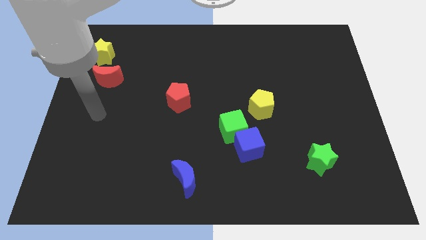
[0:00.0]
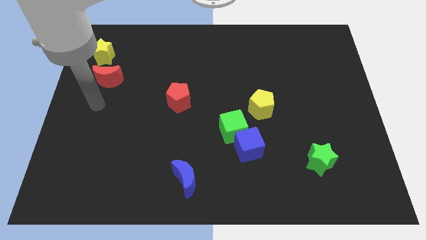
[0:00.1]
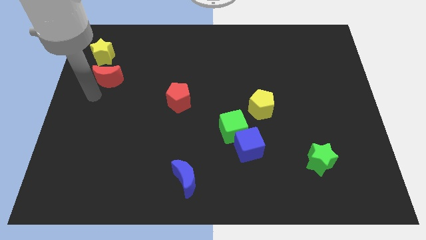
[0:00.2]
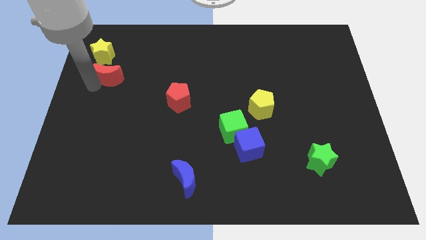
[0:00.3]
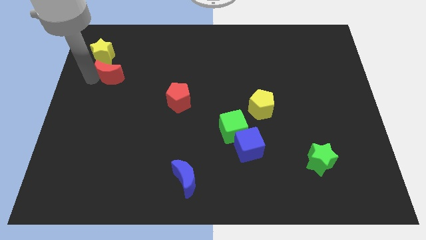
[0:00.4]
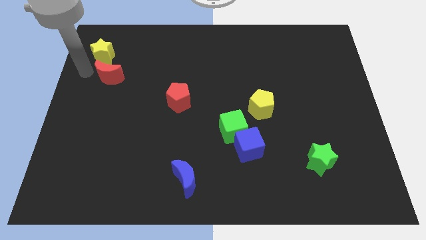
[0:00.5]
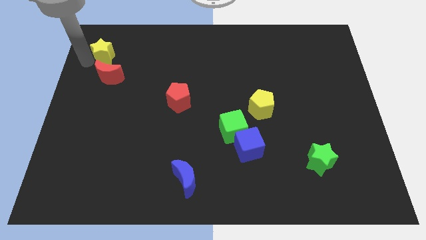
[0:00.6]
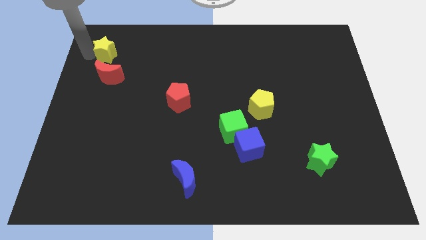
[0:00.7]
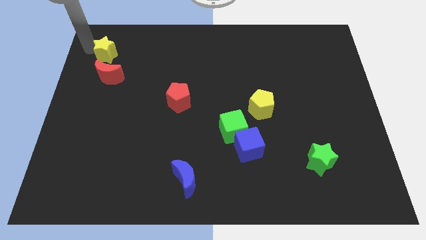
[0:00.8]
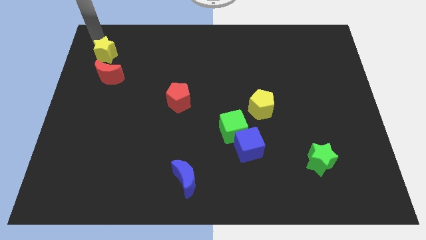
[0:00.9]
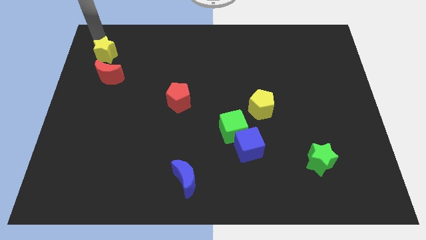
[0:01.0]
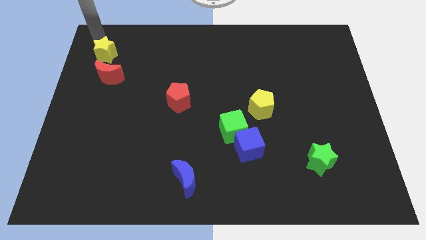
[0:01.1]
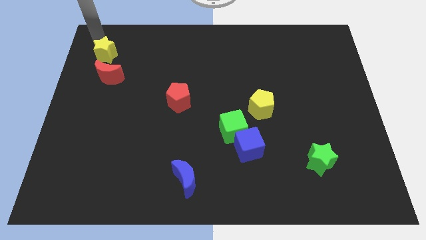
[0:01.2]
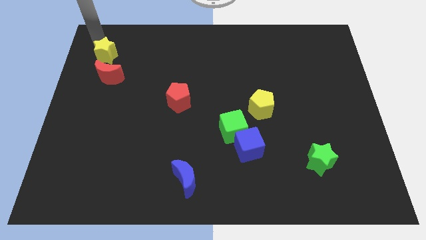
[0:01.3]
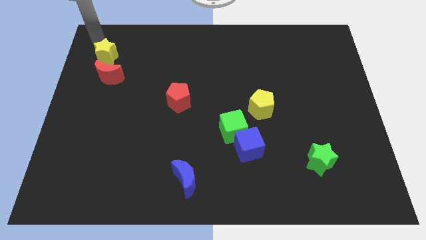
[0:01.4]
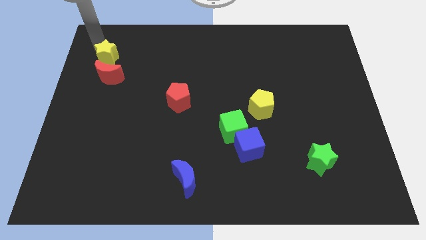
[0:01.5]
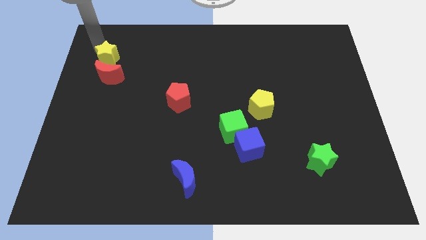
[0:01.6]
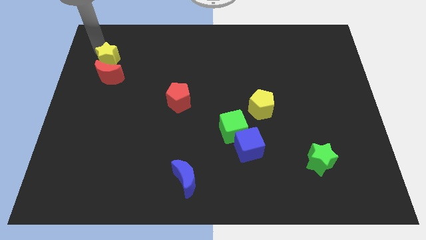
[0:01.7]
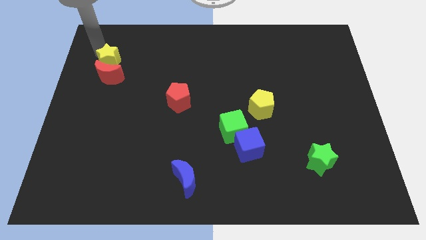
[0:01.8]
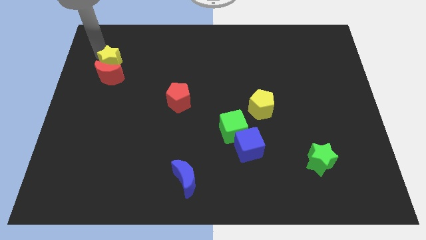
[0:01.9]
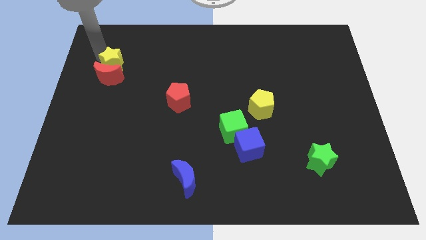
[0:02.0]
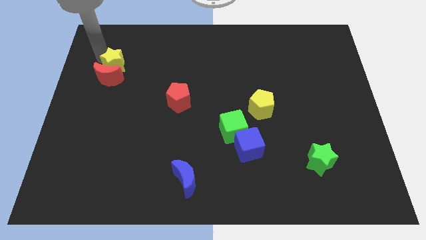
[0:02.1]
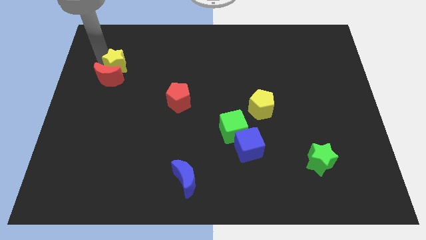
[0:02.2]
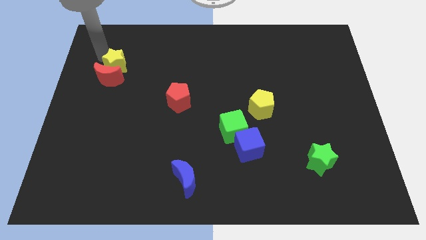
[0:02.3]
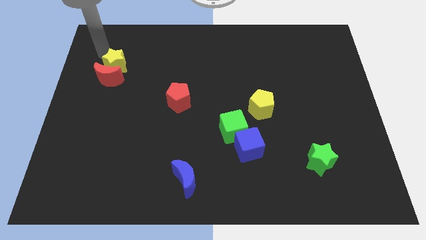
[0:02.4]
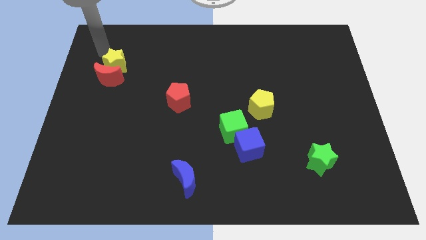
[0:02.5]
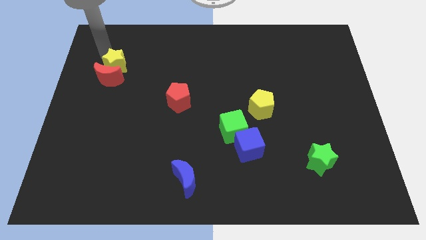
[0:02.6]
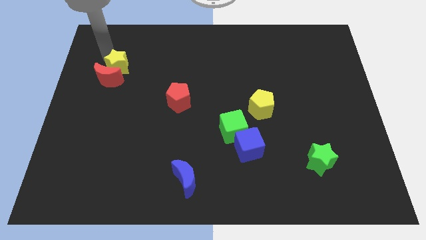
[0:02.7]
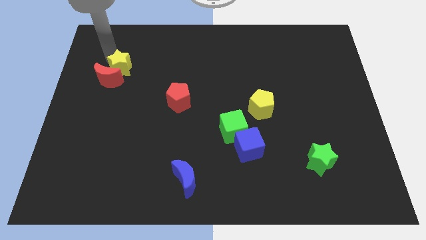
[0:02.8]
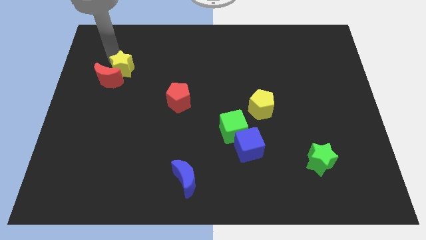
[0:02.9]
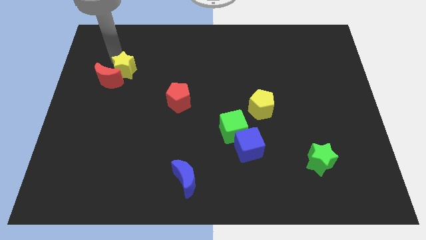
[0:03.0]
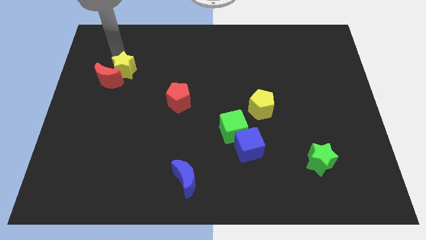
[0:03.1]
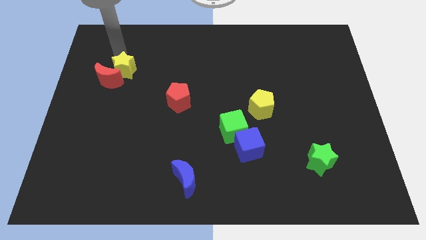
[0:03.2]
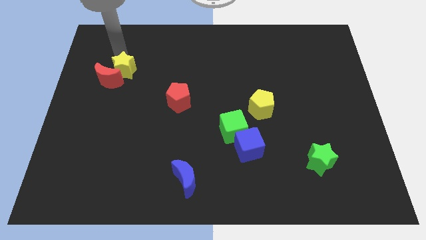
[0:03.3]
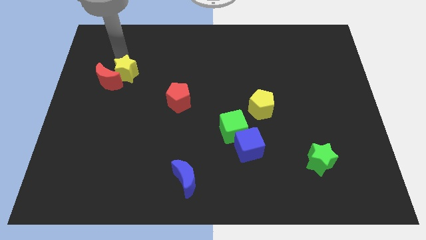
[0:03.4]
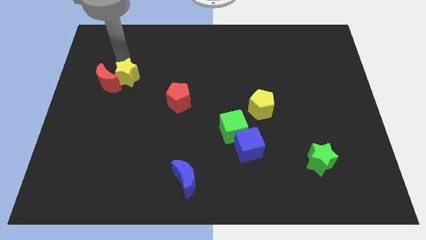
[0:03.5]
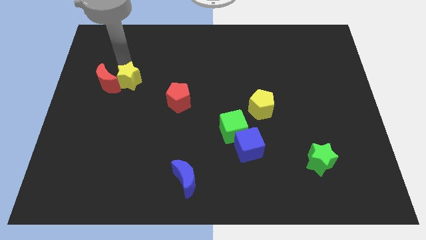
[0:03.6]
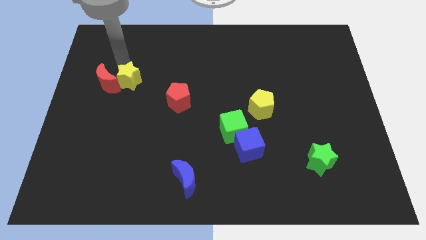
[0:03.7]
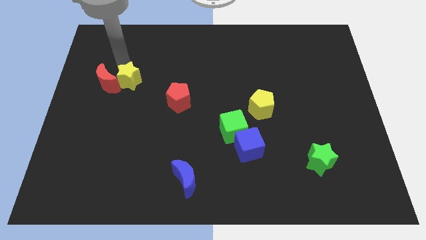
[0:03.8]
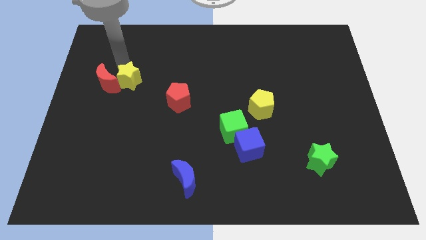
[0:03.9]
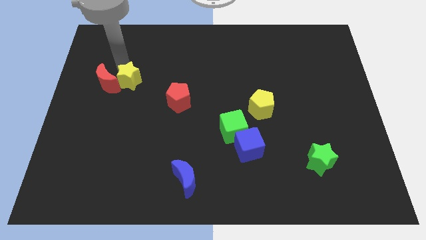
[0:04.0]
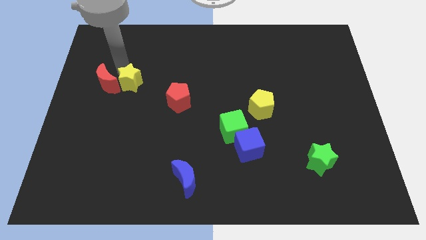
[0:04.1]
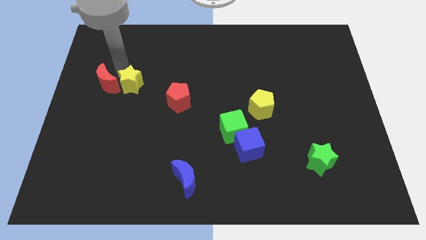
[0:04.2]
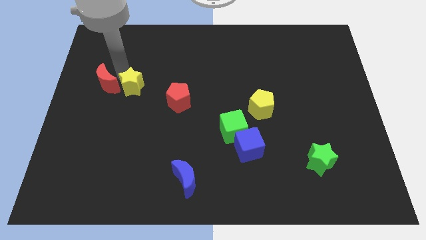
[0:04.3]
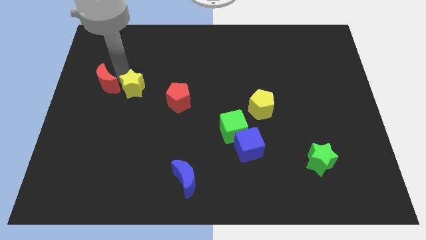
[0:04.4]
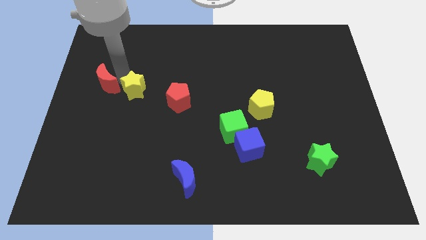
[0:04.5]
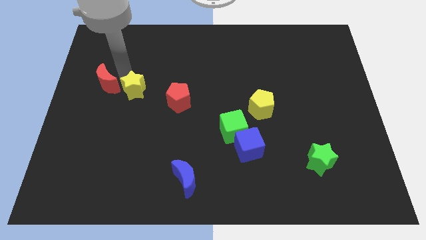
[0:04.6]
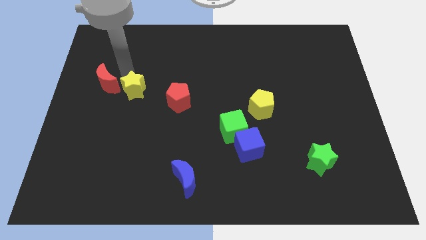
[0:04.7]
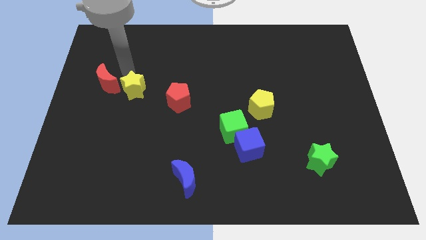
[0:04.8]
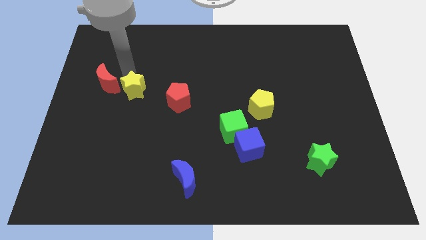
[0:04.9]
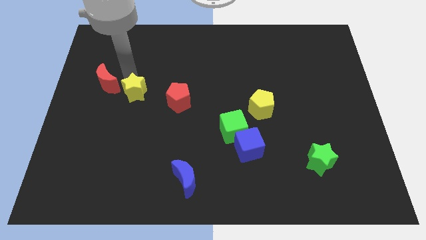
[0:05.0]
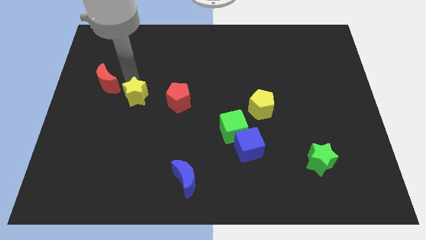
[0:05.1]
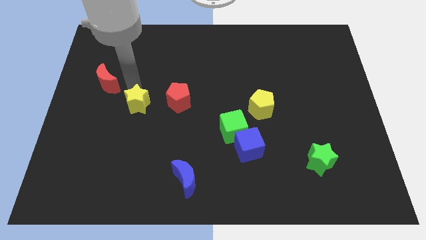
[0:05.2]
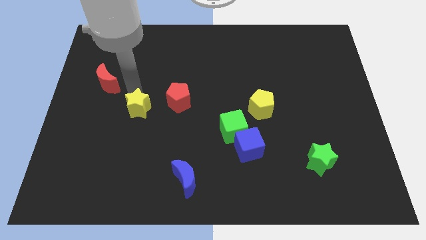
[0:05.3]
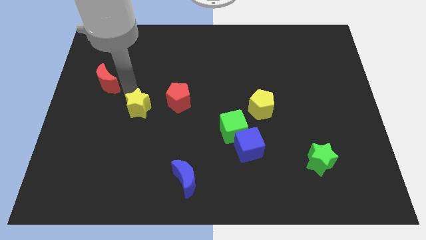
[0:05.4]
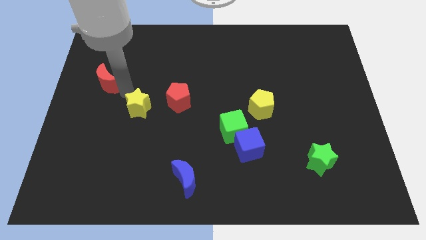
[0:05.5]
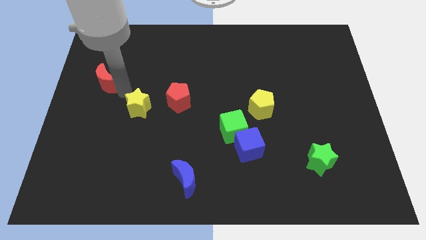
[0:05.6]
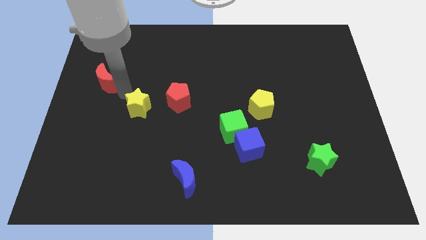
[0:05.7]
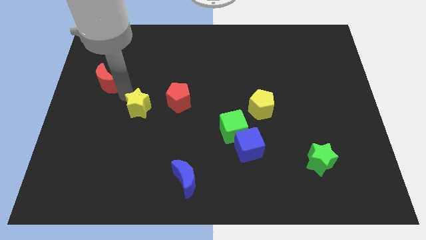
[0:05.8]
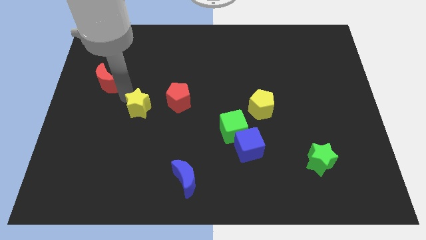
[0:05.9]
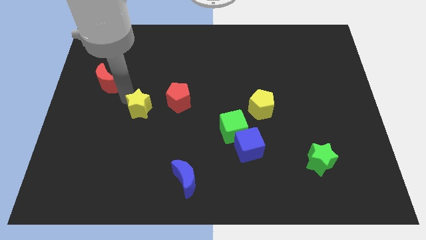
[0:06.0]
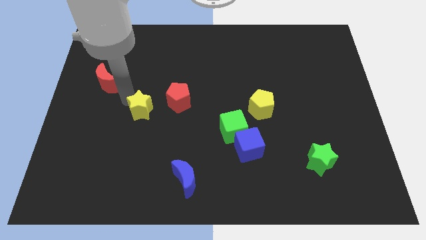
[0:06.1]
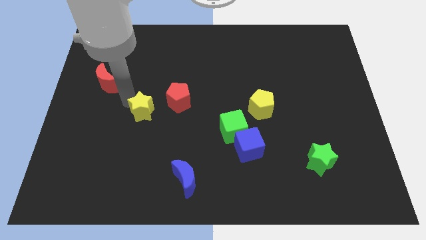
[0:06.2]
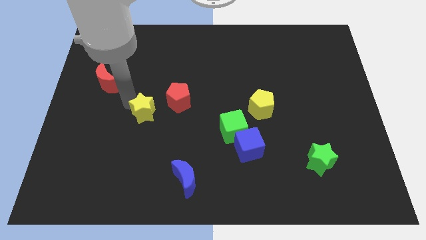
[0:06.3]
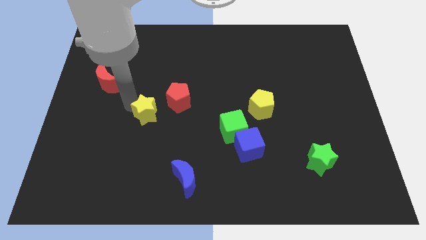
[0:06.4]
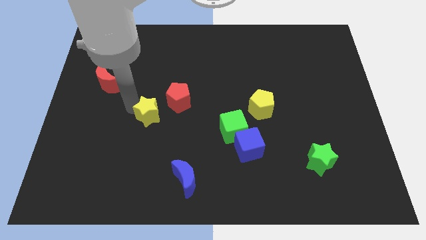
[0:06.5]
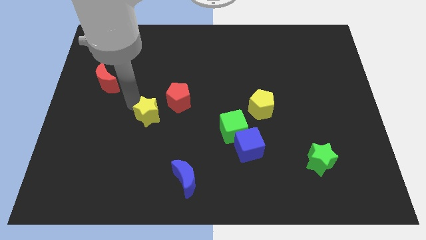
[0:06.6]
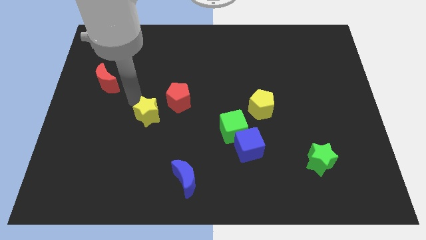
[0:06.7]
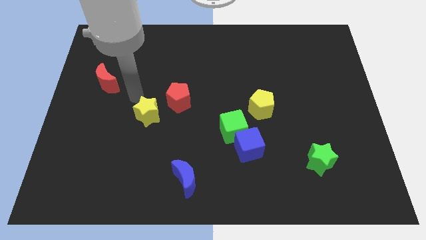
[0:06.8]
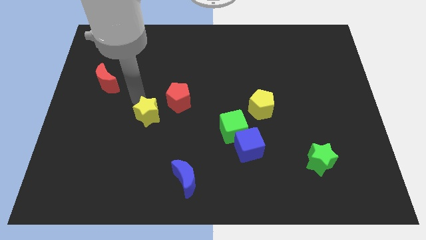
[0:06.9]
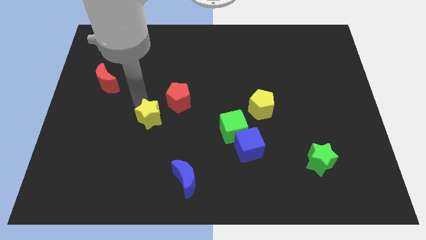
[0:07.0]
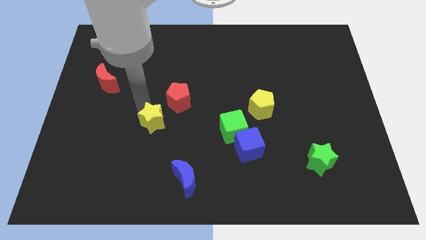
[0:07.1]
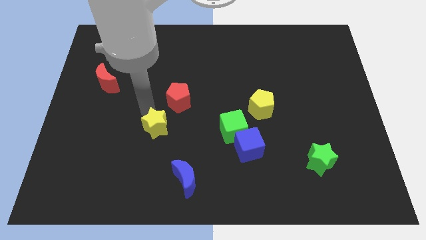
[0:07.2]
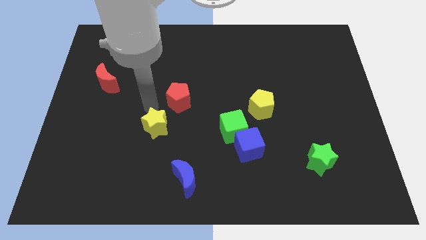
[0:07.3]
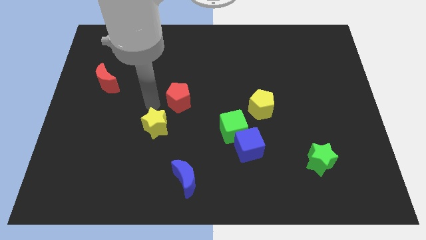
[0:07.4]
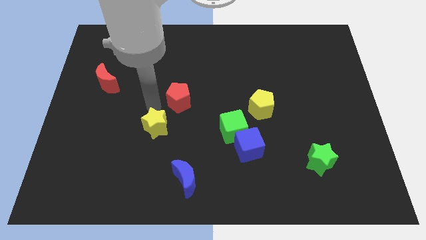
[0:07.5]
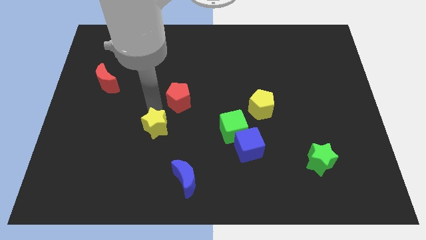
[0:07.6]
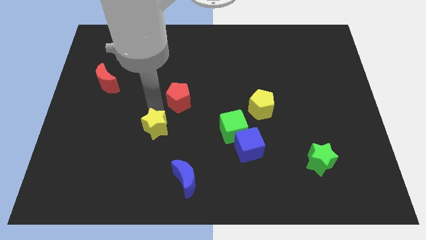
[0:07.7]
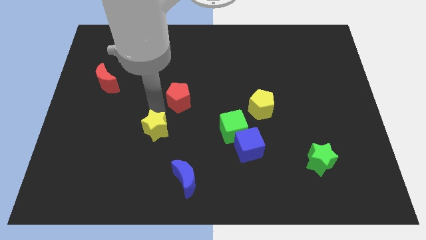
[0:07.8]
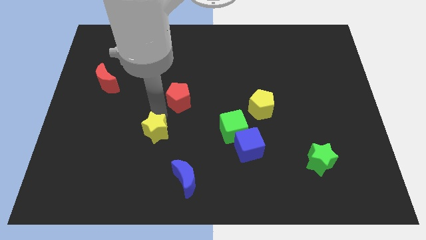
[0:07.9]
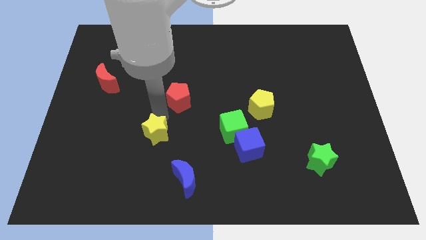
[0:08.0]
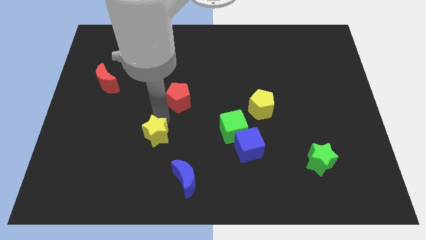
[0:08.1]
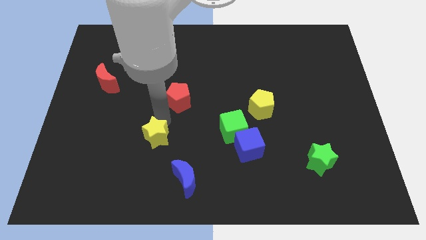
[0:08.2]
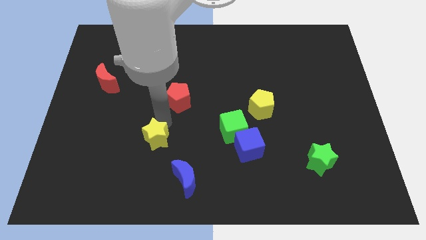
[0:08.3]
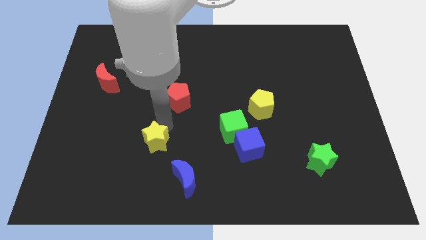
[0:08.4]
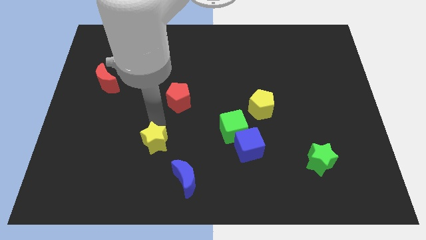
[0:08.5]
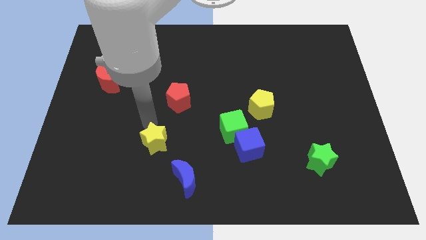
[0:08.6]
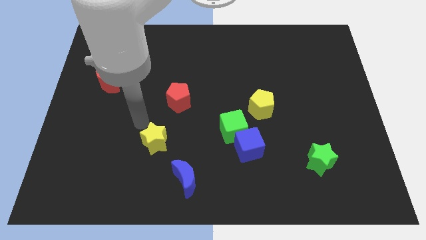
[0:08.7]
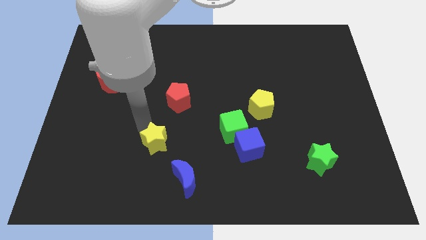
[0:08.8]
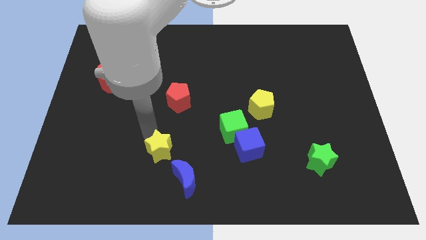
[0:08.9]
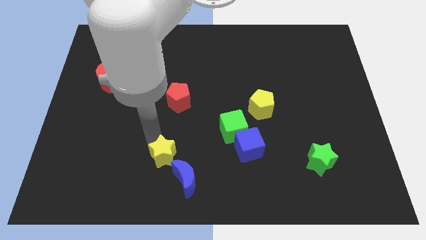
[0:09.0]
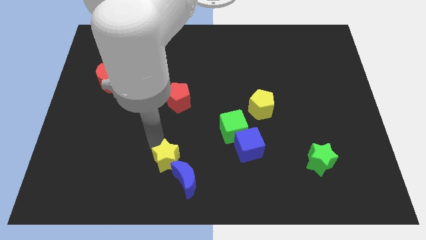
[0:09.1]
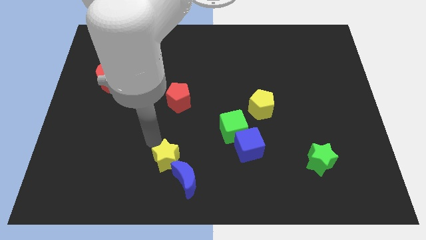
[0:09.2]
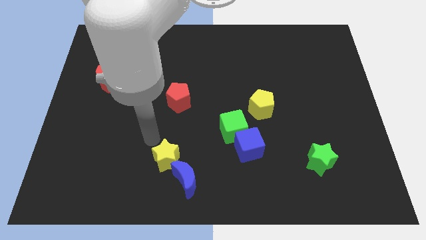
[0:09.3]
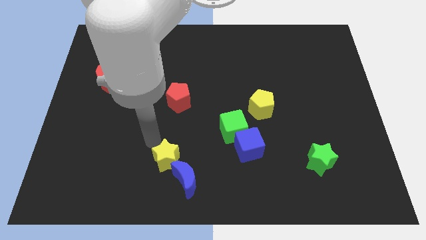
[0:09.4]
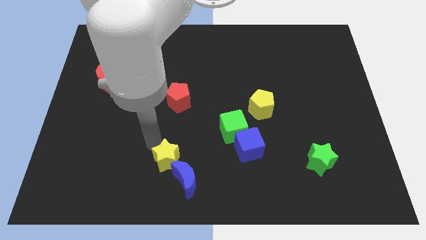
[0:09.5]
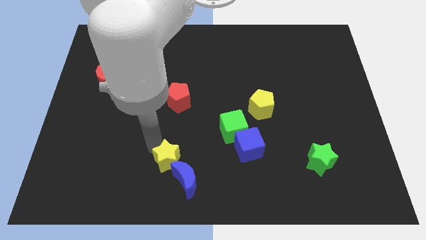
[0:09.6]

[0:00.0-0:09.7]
push the yellow star to the blue moon
